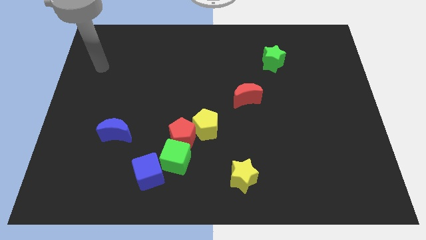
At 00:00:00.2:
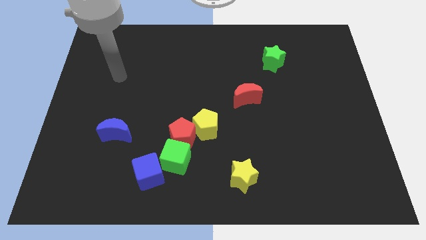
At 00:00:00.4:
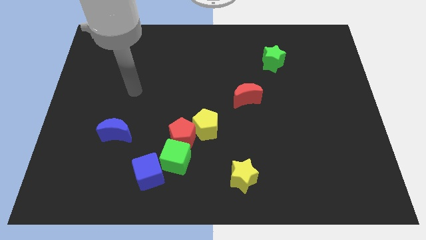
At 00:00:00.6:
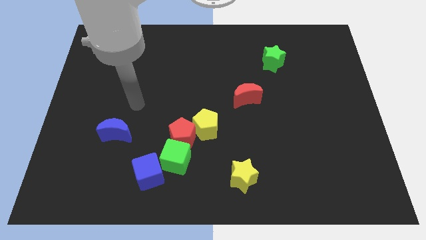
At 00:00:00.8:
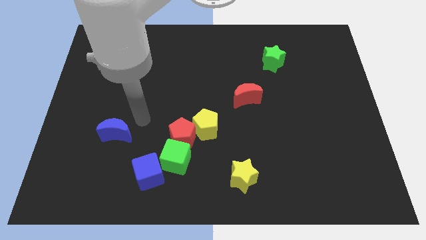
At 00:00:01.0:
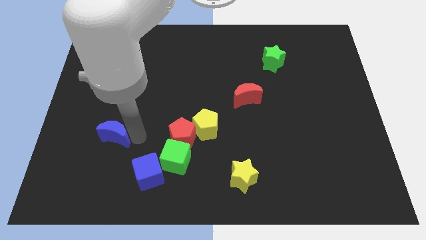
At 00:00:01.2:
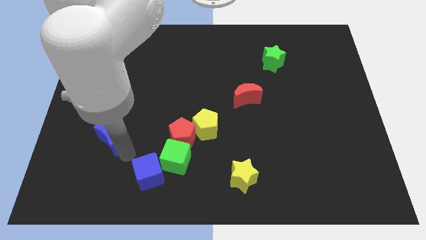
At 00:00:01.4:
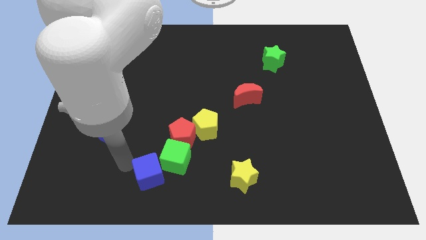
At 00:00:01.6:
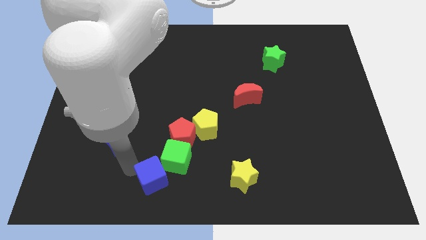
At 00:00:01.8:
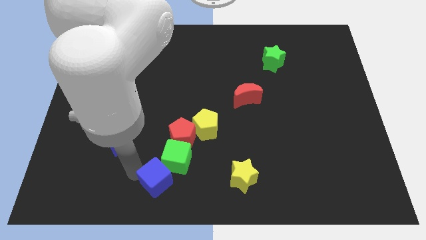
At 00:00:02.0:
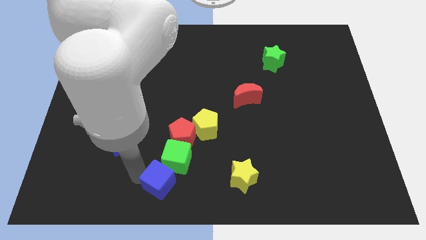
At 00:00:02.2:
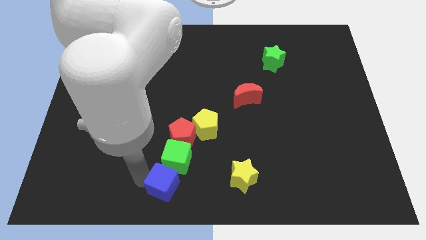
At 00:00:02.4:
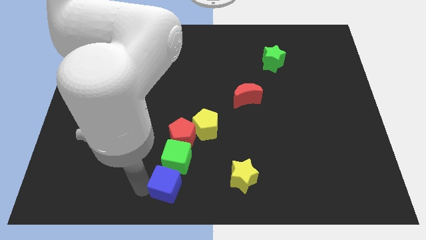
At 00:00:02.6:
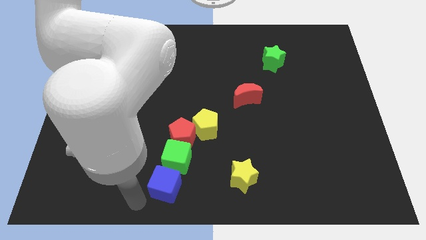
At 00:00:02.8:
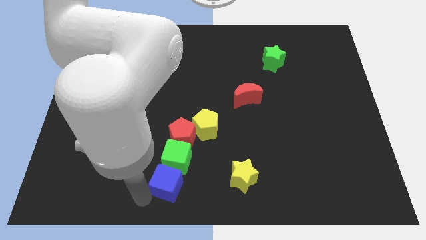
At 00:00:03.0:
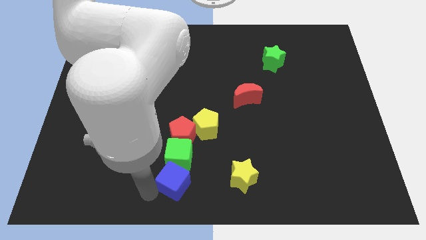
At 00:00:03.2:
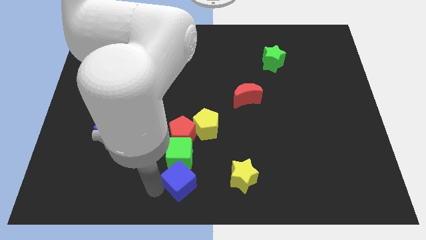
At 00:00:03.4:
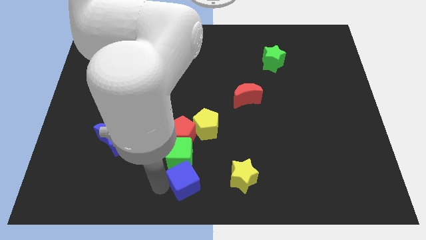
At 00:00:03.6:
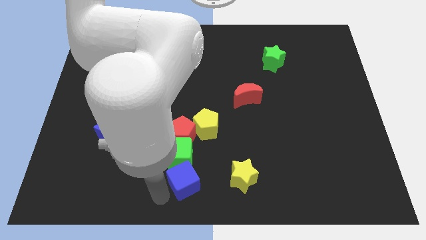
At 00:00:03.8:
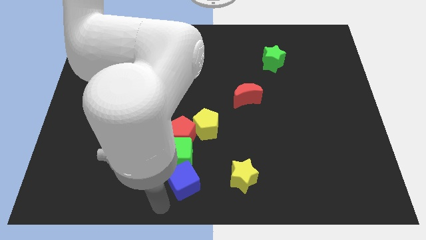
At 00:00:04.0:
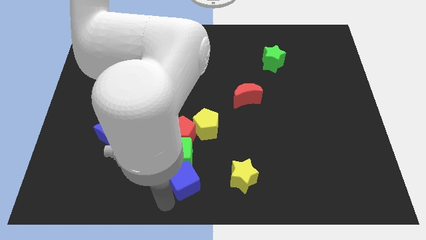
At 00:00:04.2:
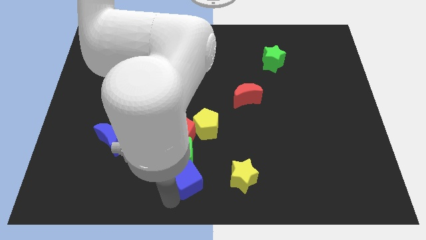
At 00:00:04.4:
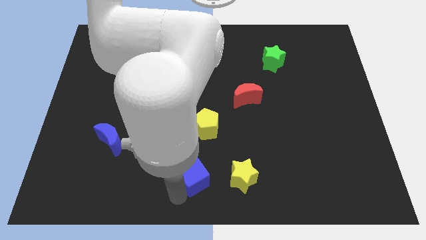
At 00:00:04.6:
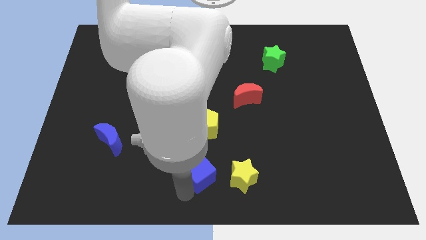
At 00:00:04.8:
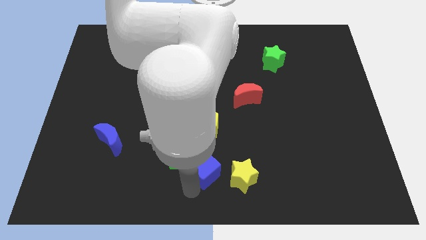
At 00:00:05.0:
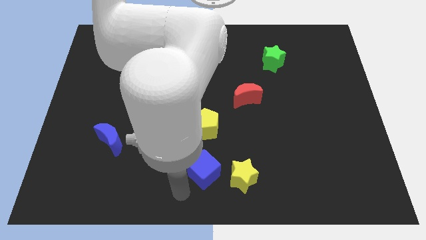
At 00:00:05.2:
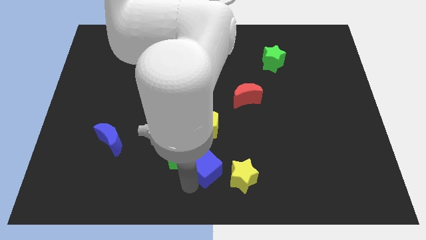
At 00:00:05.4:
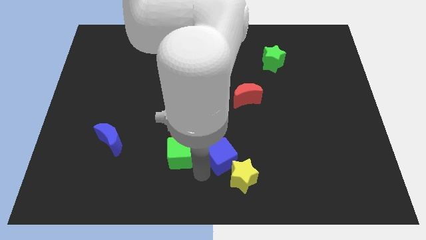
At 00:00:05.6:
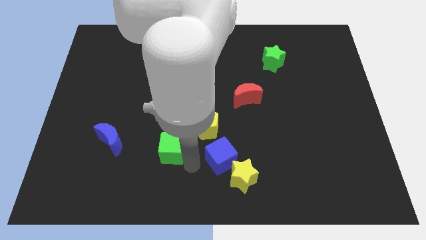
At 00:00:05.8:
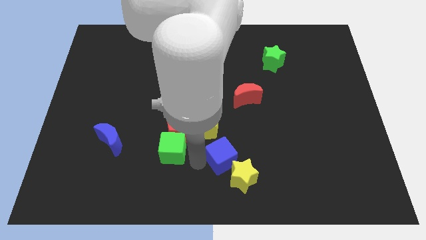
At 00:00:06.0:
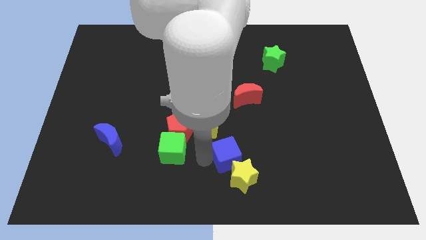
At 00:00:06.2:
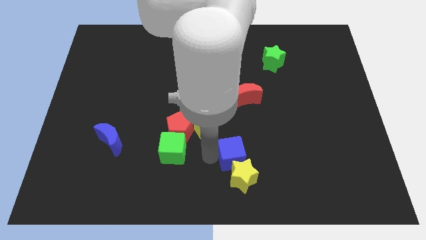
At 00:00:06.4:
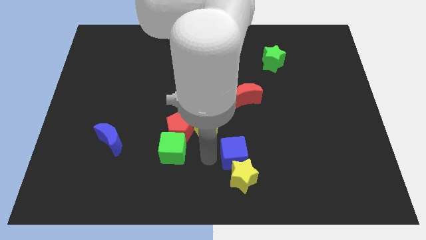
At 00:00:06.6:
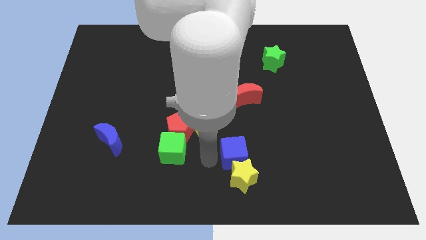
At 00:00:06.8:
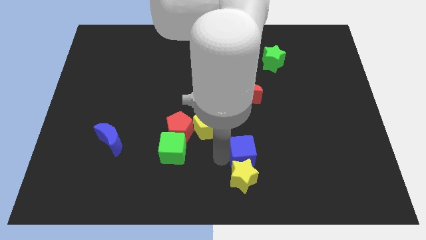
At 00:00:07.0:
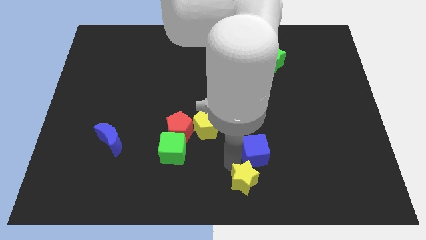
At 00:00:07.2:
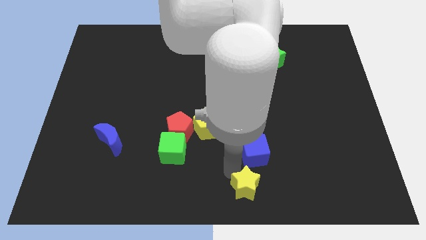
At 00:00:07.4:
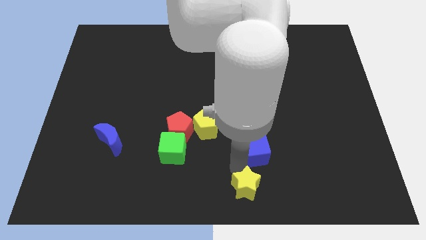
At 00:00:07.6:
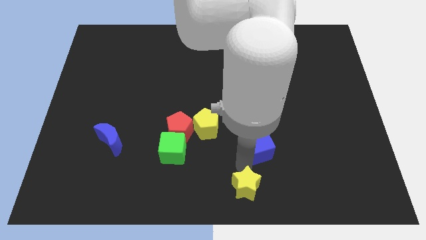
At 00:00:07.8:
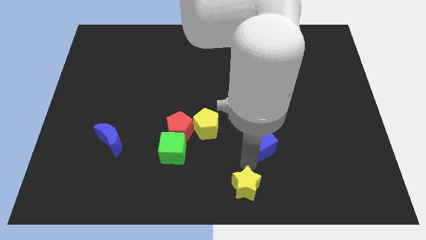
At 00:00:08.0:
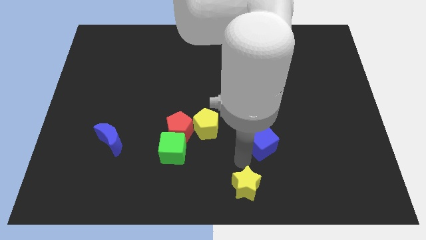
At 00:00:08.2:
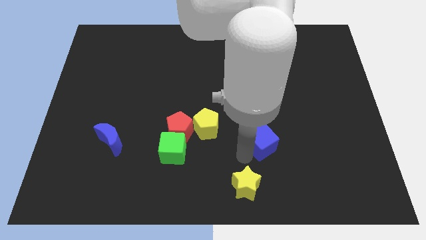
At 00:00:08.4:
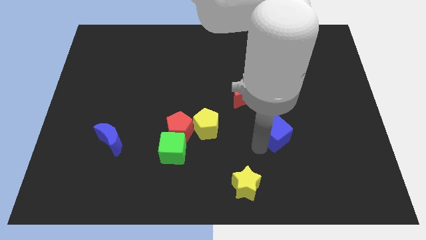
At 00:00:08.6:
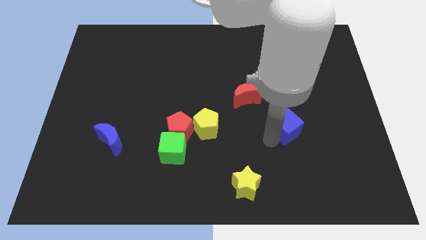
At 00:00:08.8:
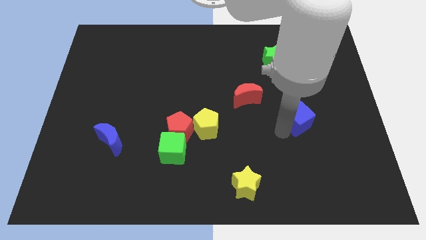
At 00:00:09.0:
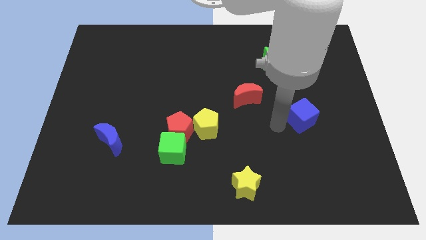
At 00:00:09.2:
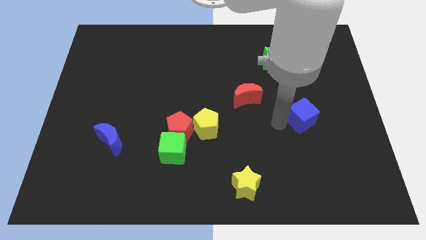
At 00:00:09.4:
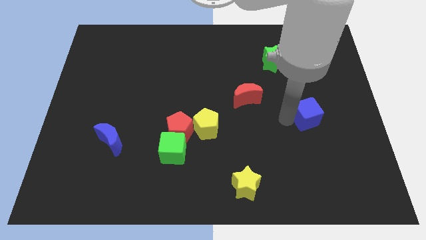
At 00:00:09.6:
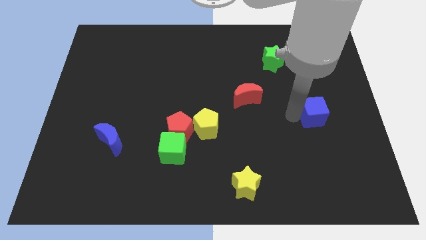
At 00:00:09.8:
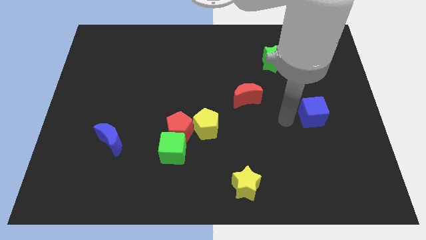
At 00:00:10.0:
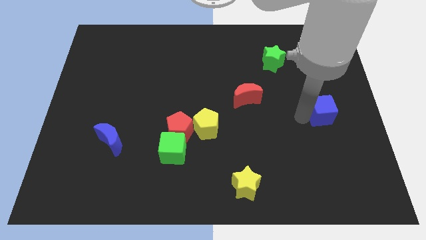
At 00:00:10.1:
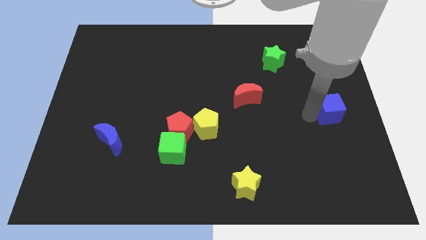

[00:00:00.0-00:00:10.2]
push the blue cube to the center right

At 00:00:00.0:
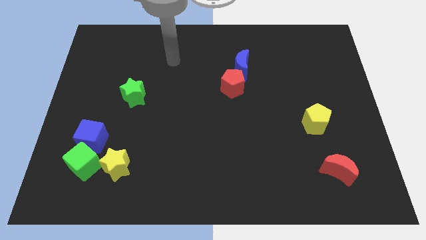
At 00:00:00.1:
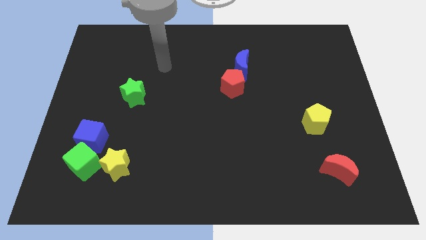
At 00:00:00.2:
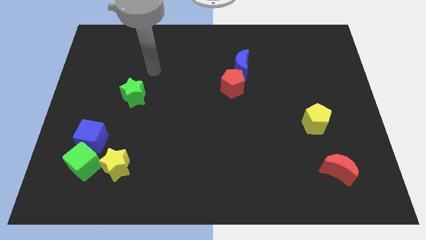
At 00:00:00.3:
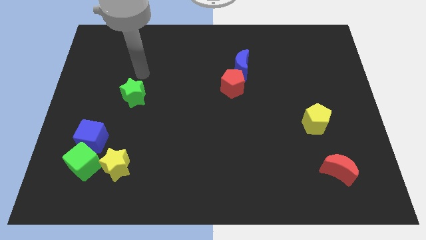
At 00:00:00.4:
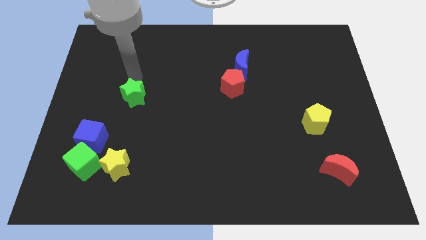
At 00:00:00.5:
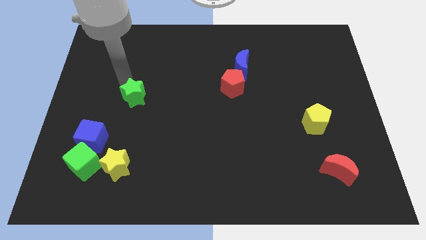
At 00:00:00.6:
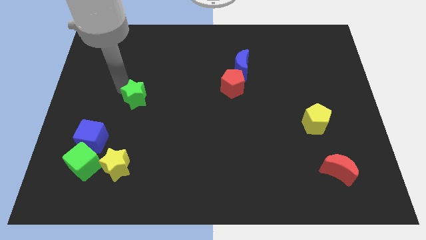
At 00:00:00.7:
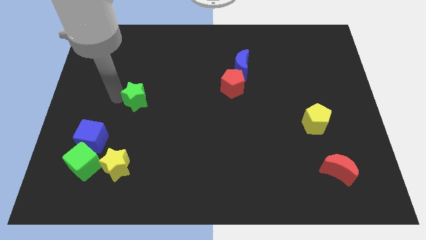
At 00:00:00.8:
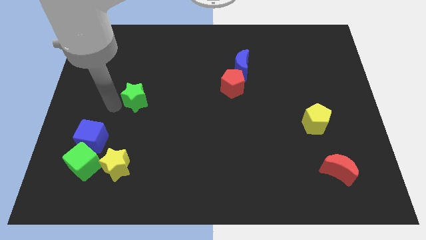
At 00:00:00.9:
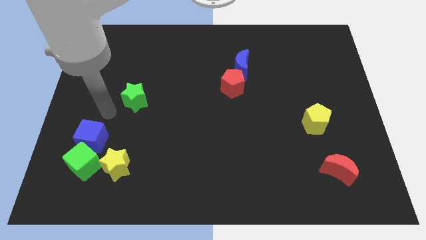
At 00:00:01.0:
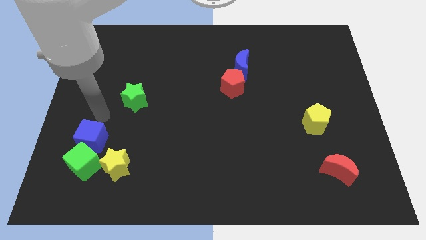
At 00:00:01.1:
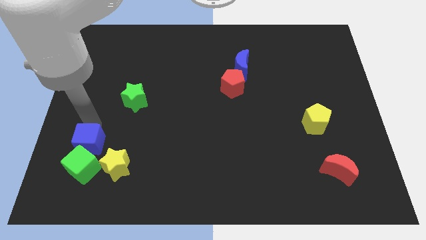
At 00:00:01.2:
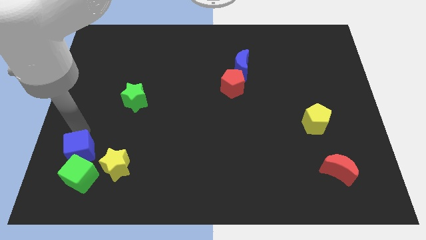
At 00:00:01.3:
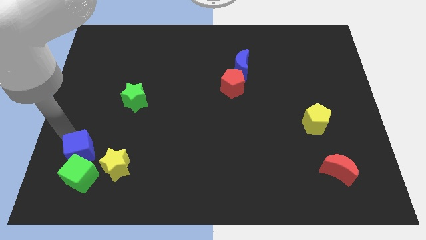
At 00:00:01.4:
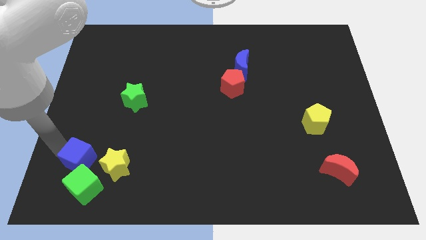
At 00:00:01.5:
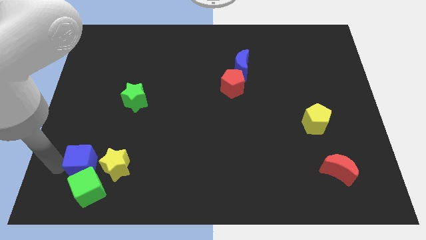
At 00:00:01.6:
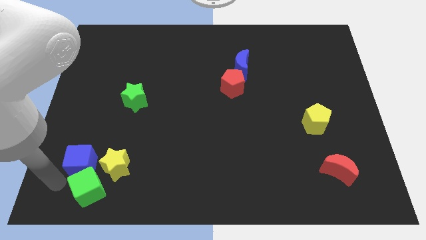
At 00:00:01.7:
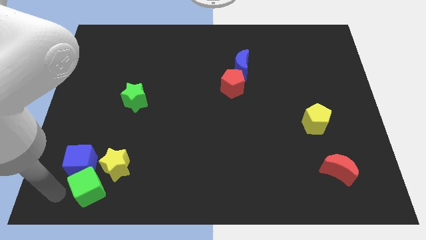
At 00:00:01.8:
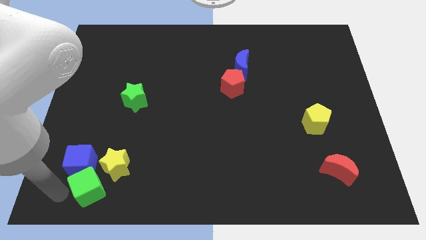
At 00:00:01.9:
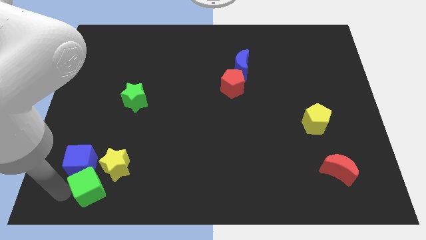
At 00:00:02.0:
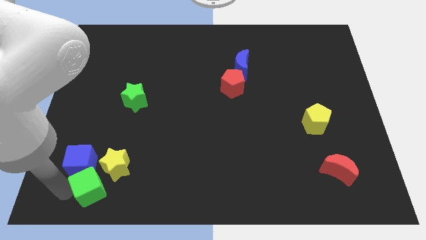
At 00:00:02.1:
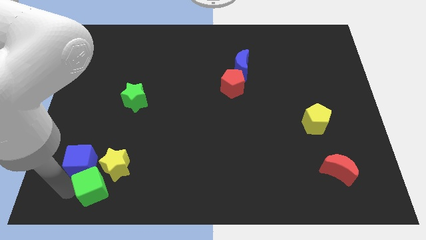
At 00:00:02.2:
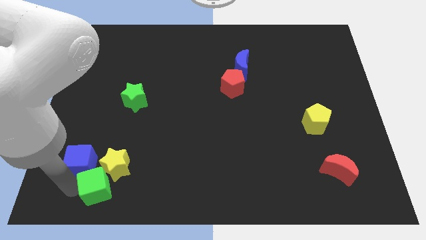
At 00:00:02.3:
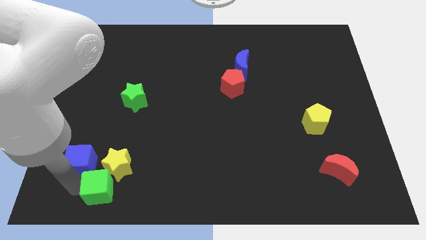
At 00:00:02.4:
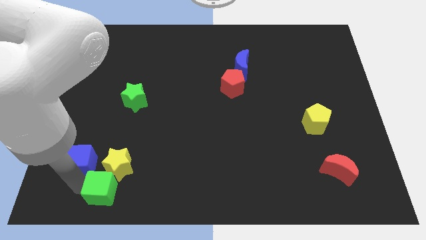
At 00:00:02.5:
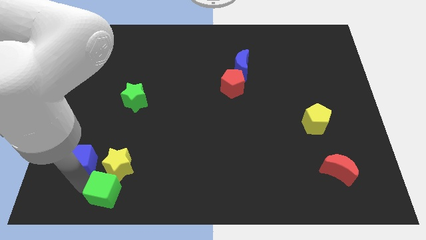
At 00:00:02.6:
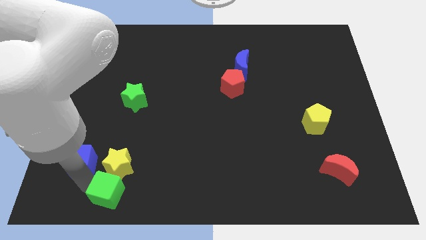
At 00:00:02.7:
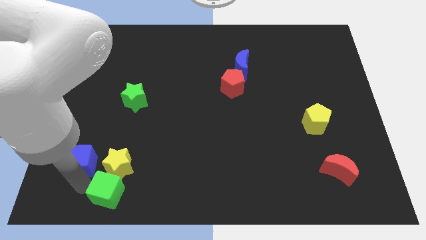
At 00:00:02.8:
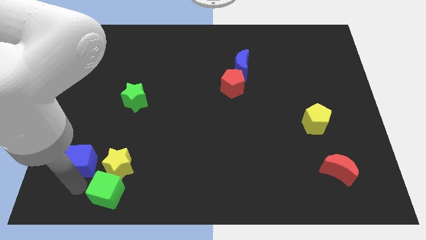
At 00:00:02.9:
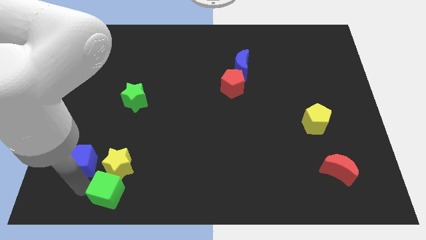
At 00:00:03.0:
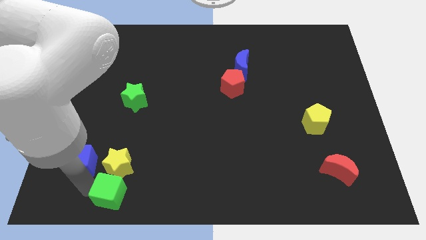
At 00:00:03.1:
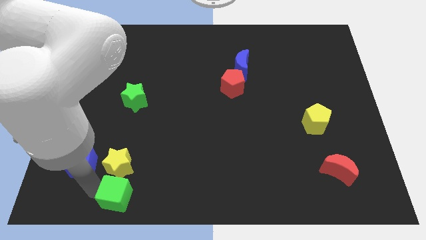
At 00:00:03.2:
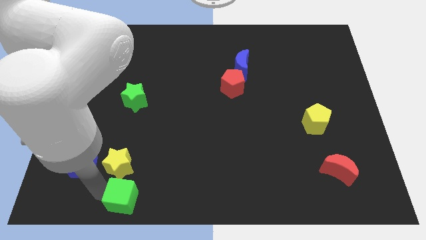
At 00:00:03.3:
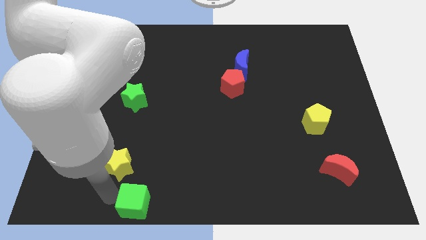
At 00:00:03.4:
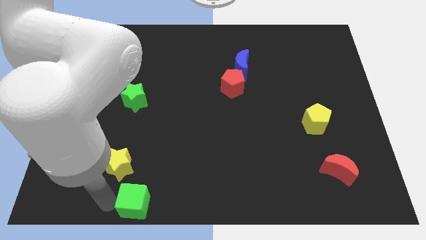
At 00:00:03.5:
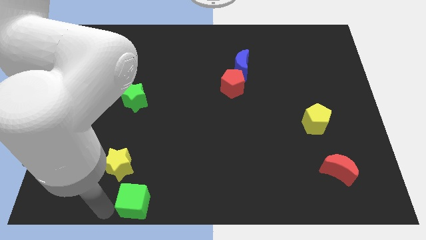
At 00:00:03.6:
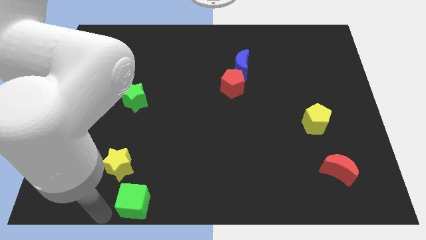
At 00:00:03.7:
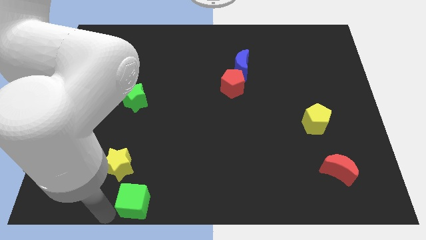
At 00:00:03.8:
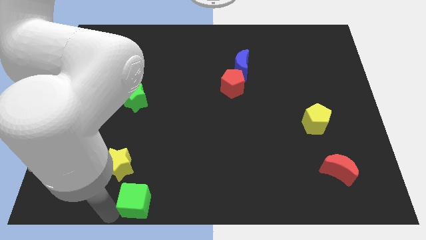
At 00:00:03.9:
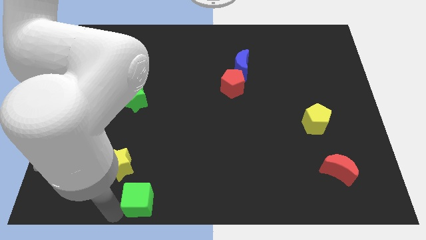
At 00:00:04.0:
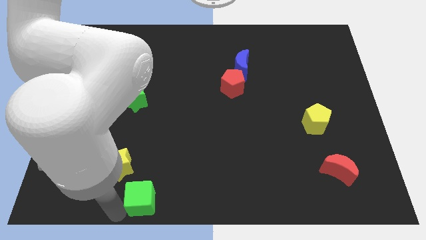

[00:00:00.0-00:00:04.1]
push the green cube to the bottom
